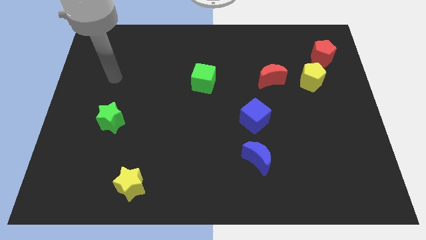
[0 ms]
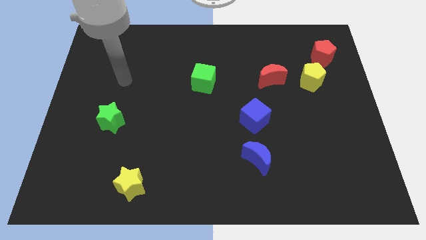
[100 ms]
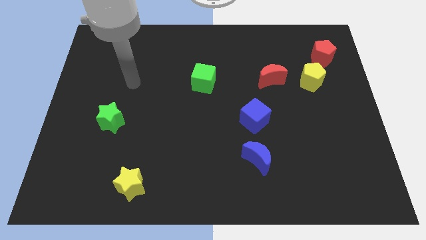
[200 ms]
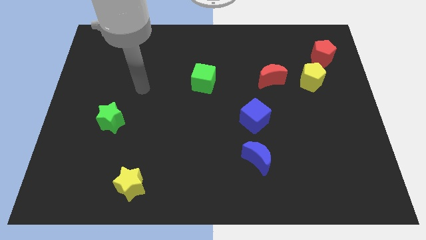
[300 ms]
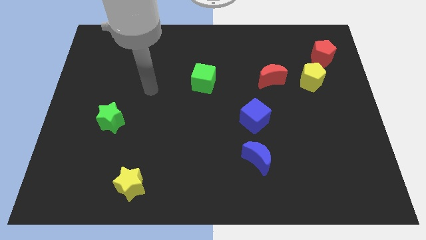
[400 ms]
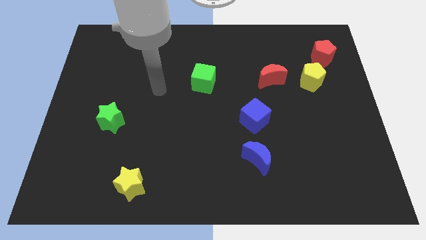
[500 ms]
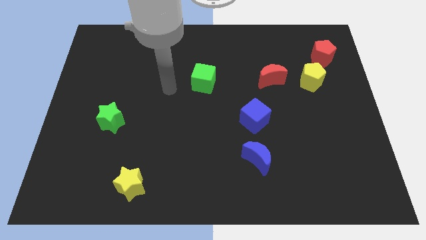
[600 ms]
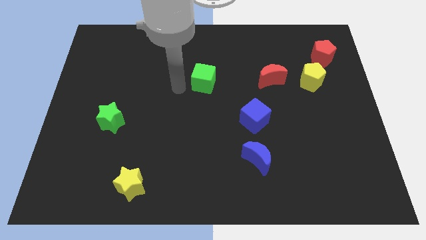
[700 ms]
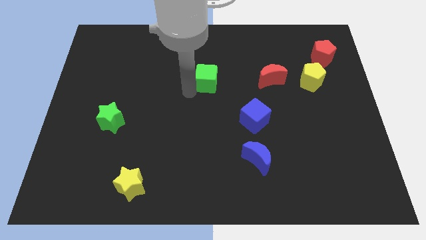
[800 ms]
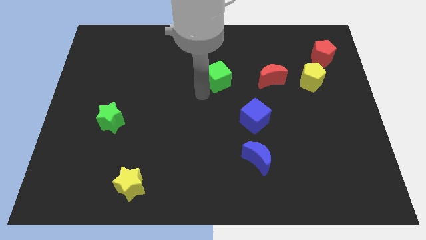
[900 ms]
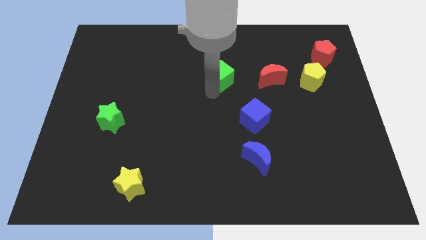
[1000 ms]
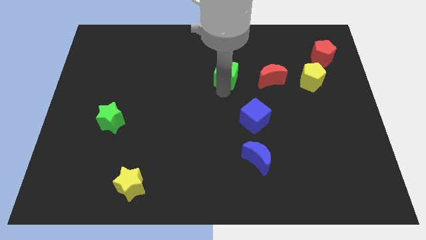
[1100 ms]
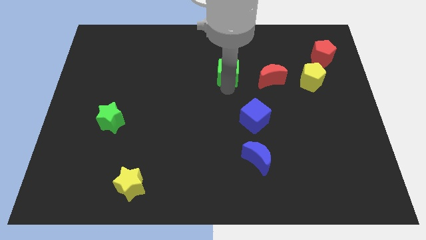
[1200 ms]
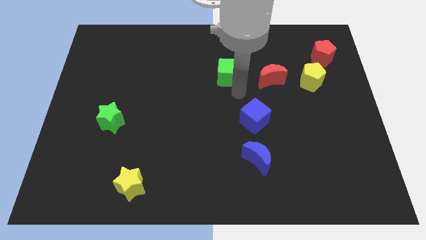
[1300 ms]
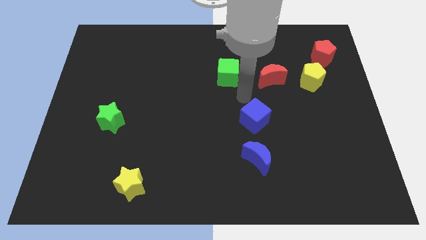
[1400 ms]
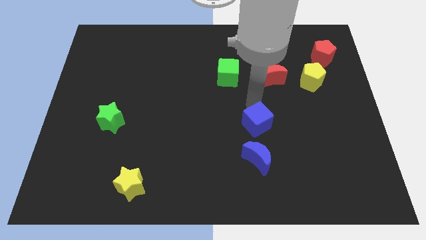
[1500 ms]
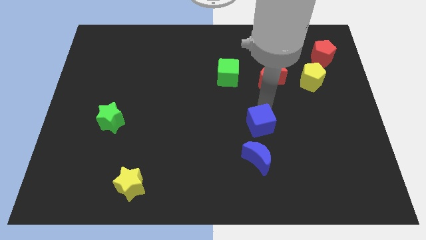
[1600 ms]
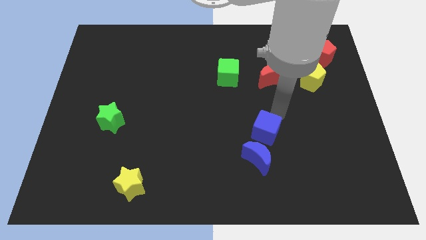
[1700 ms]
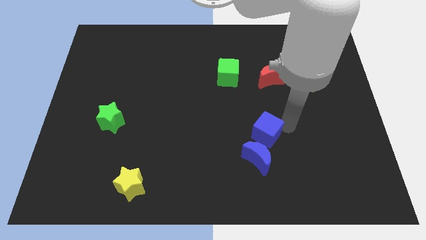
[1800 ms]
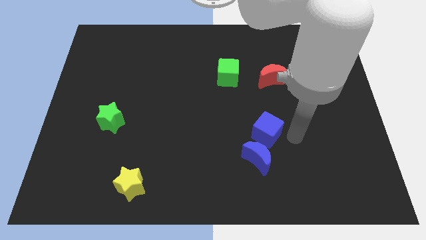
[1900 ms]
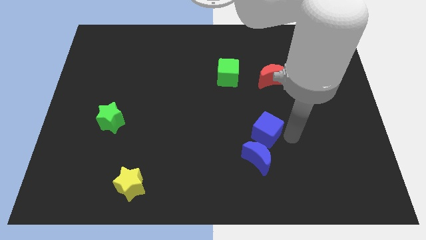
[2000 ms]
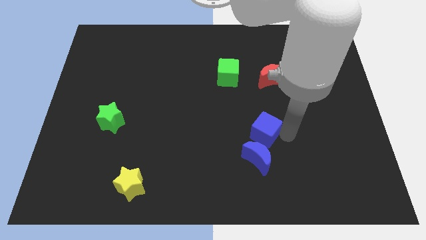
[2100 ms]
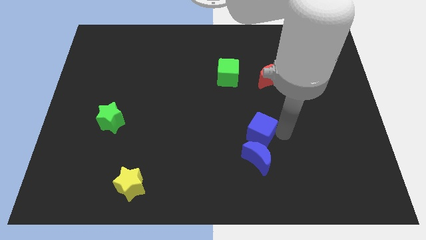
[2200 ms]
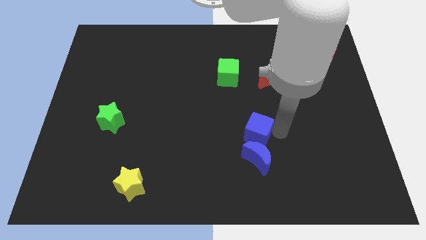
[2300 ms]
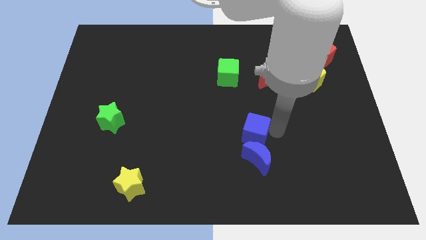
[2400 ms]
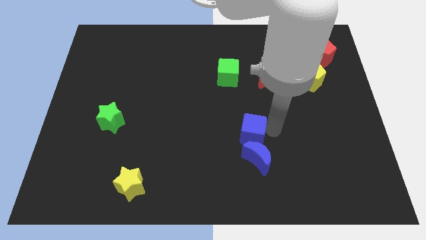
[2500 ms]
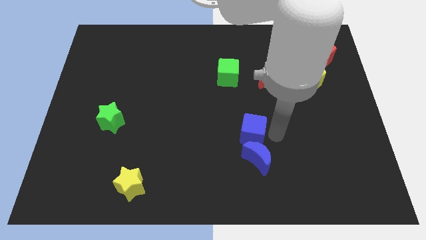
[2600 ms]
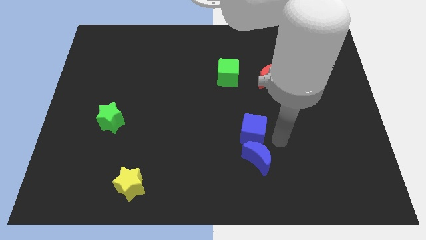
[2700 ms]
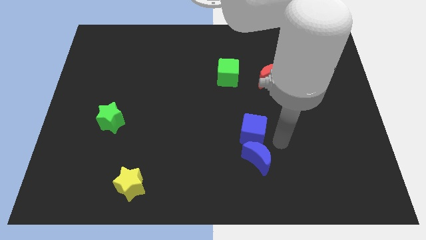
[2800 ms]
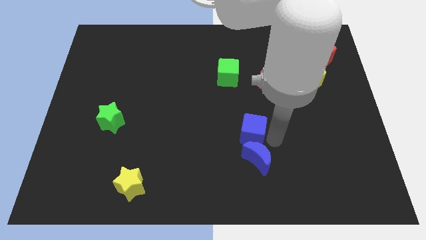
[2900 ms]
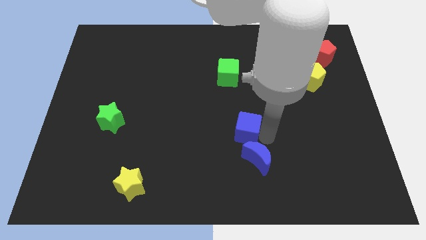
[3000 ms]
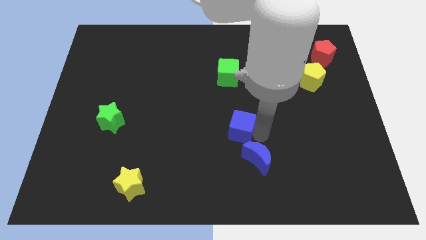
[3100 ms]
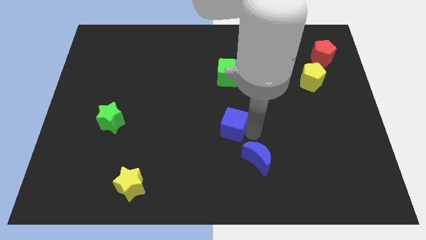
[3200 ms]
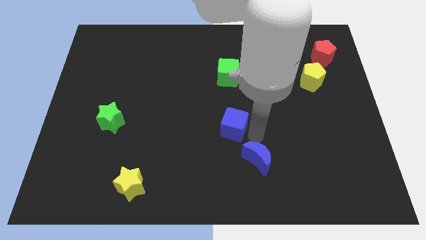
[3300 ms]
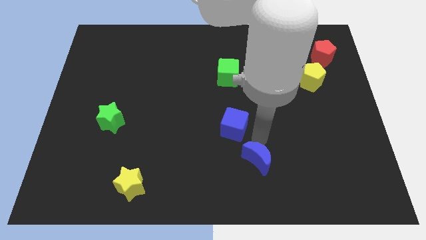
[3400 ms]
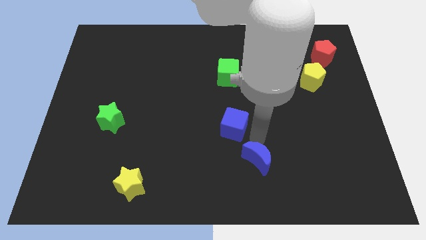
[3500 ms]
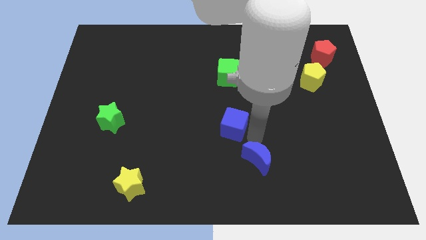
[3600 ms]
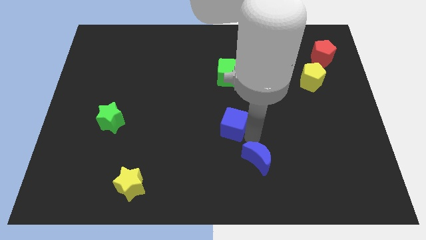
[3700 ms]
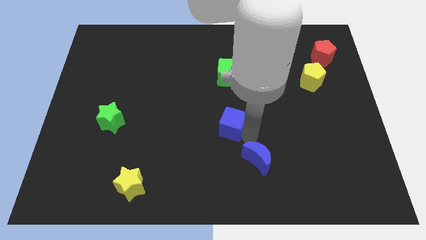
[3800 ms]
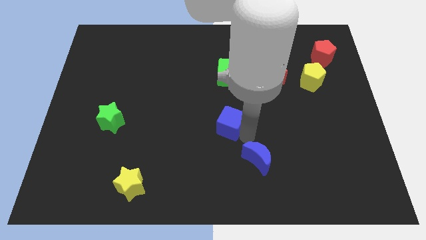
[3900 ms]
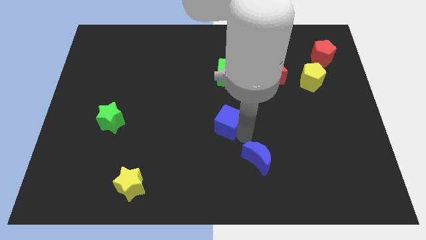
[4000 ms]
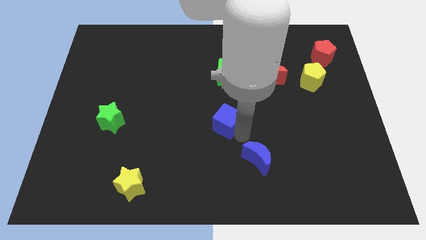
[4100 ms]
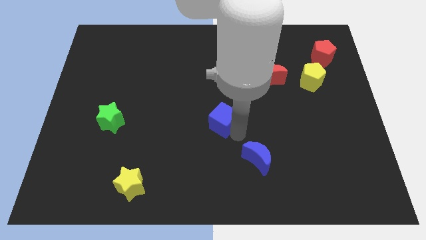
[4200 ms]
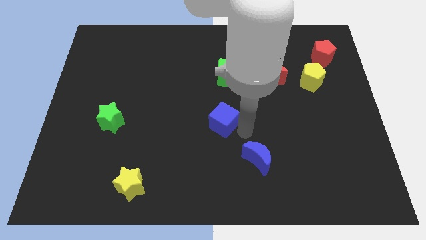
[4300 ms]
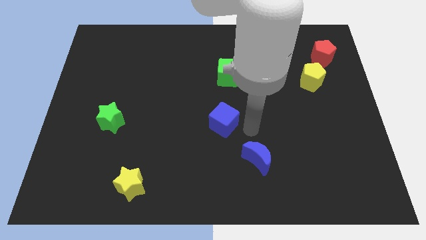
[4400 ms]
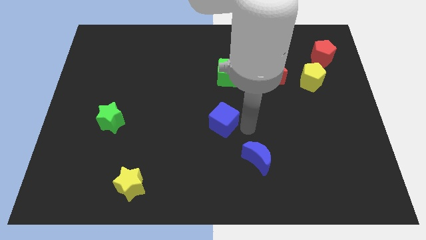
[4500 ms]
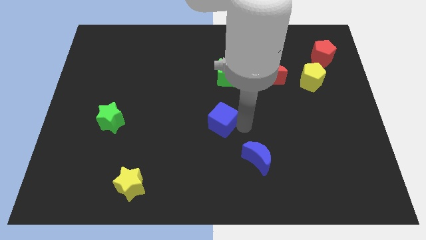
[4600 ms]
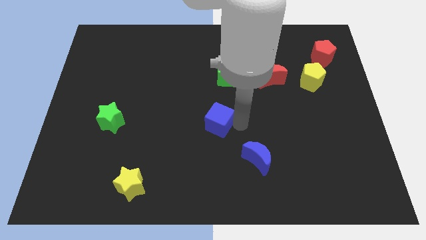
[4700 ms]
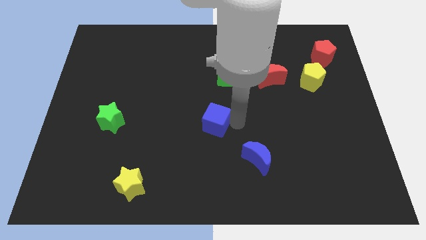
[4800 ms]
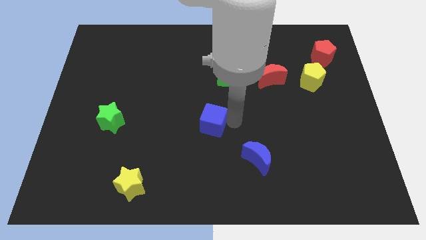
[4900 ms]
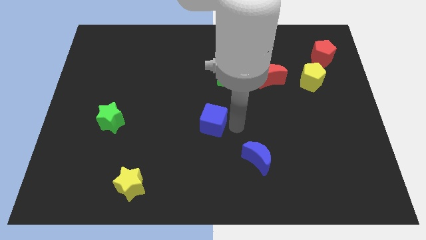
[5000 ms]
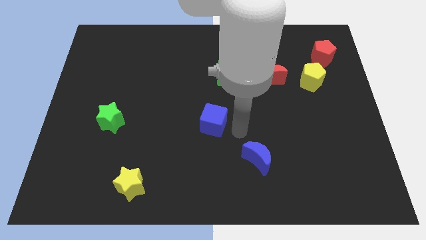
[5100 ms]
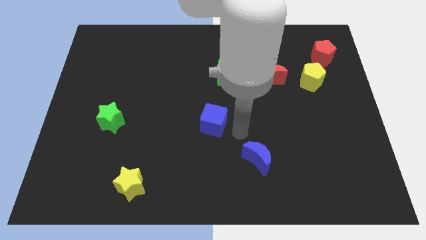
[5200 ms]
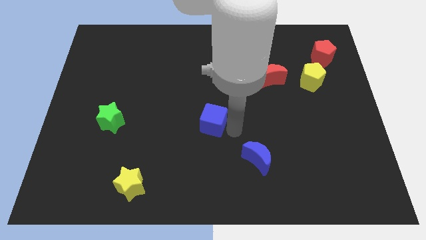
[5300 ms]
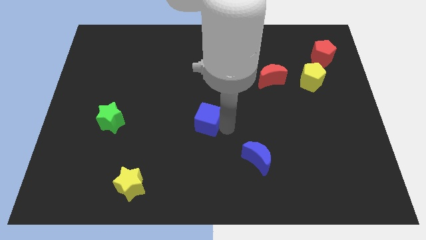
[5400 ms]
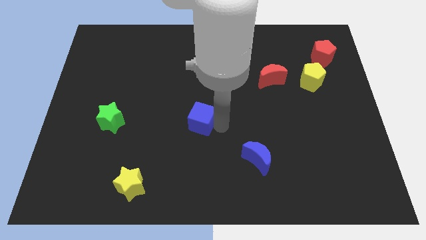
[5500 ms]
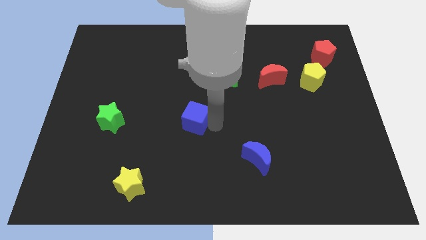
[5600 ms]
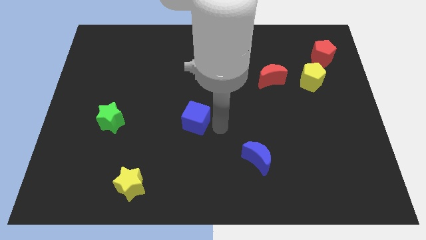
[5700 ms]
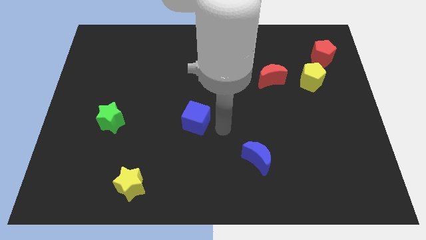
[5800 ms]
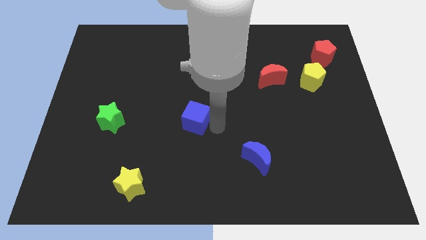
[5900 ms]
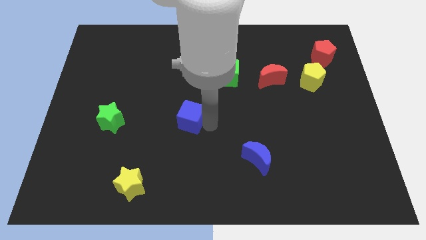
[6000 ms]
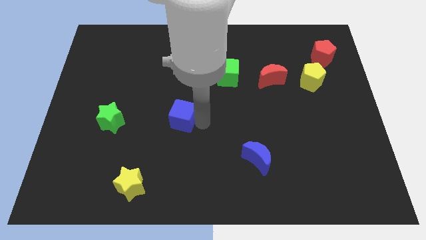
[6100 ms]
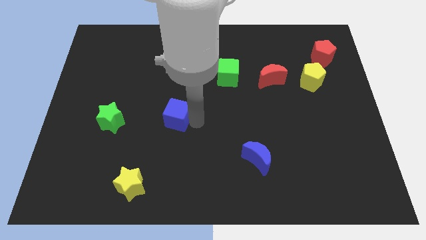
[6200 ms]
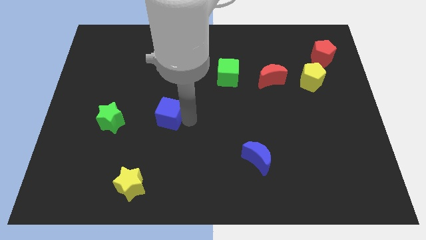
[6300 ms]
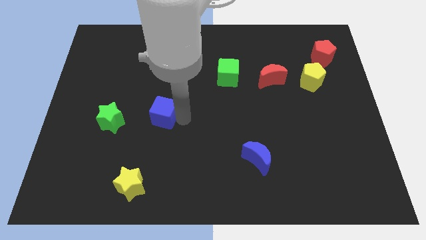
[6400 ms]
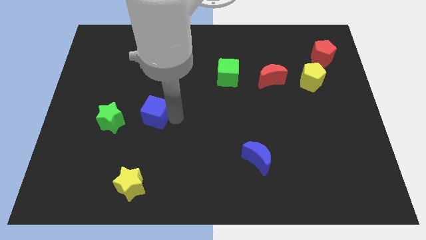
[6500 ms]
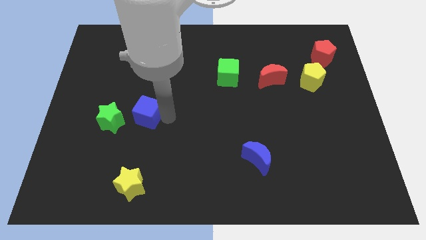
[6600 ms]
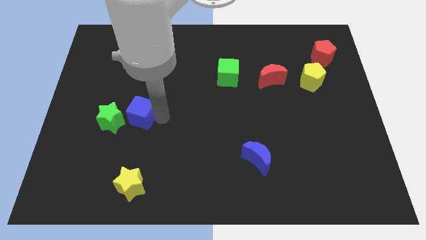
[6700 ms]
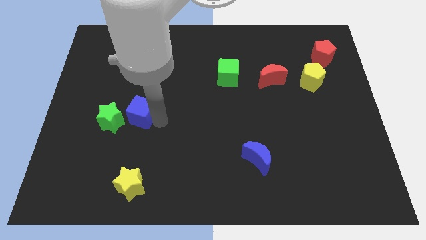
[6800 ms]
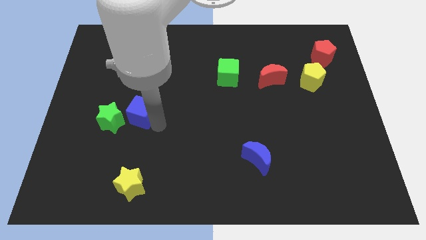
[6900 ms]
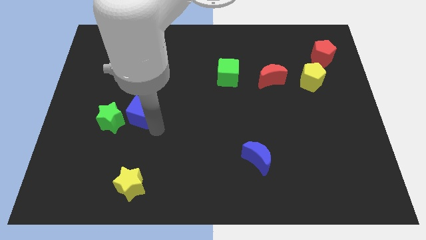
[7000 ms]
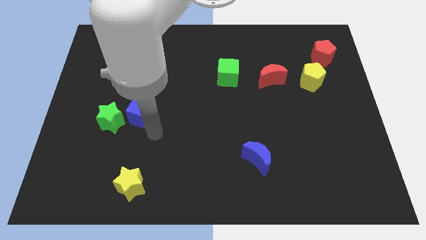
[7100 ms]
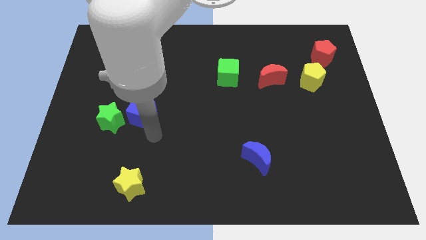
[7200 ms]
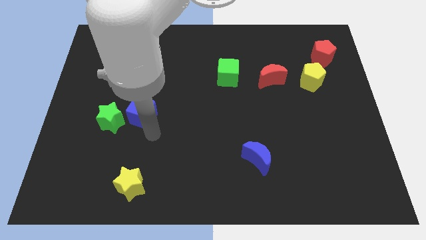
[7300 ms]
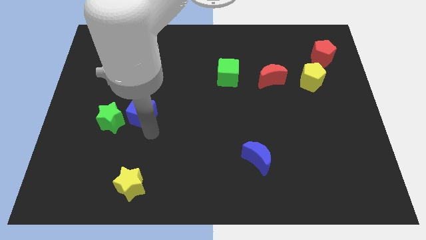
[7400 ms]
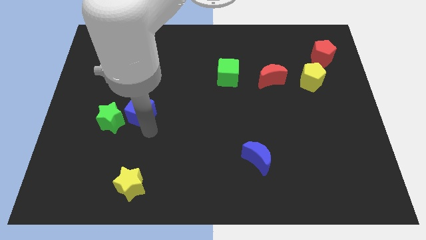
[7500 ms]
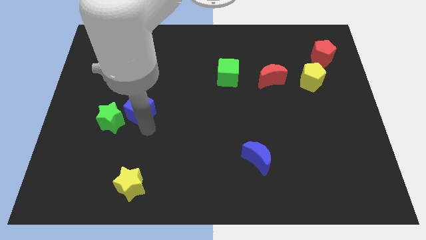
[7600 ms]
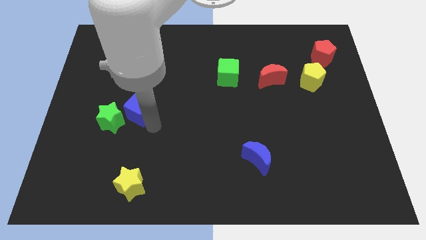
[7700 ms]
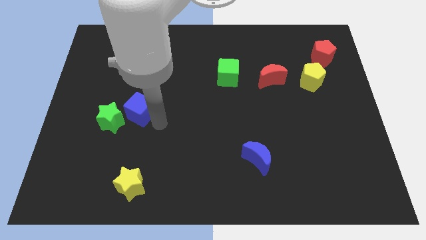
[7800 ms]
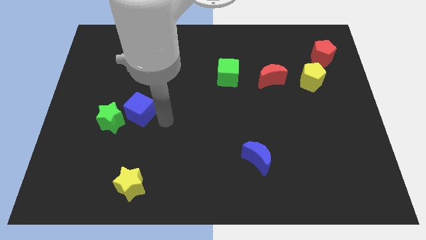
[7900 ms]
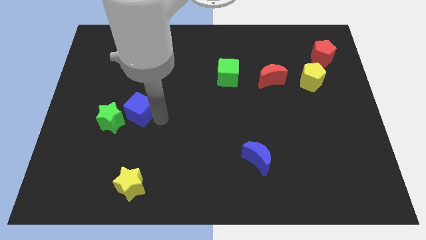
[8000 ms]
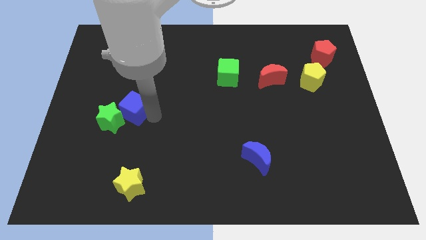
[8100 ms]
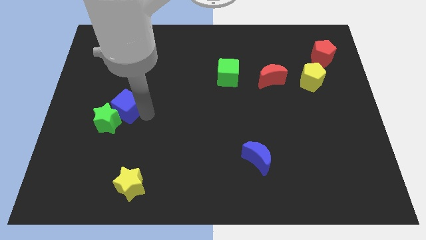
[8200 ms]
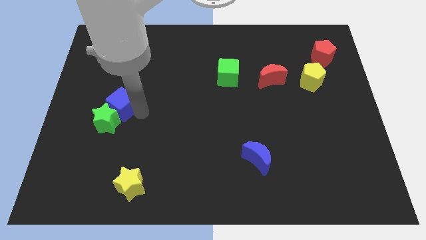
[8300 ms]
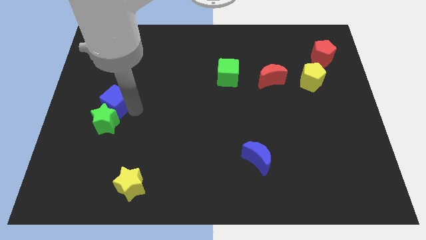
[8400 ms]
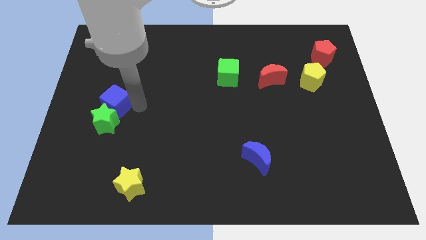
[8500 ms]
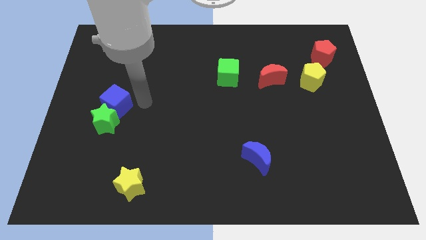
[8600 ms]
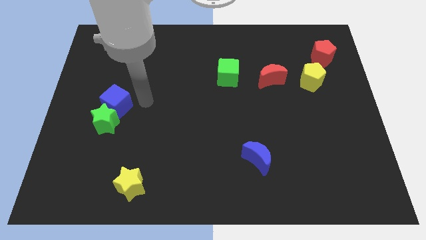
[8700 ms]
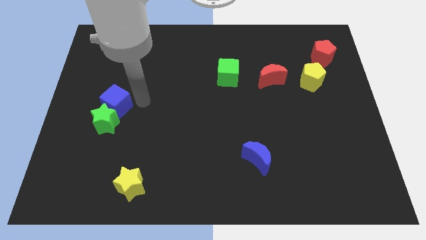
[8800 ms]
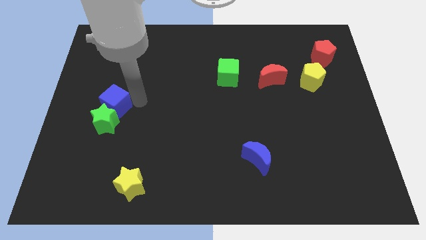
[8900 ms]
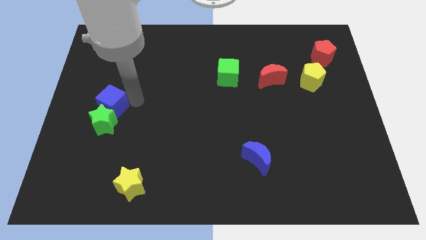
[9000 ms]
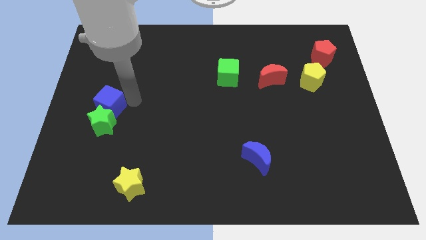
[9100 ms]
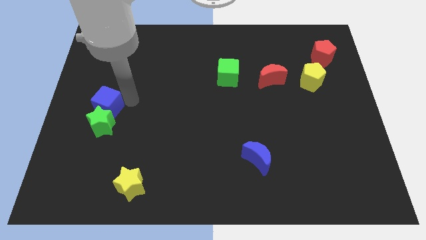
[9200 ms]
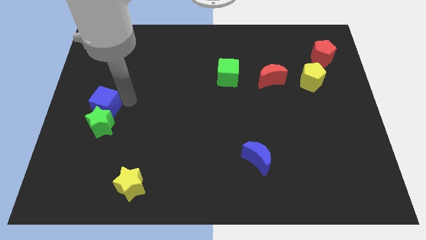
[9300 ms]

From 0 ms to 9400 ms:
slide the blue cube to the left side
